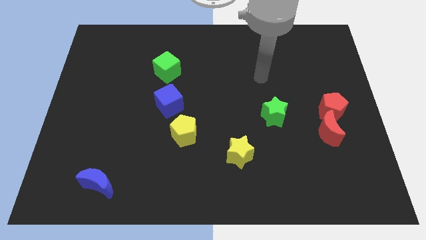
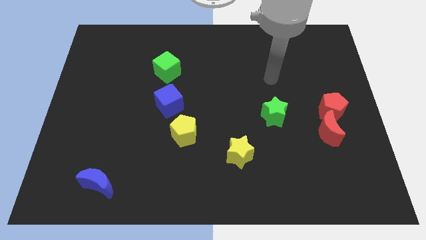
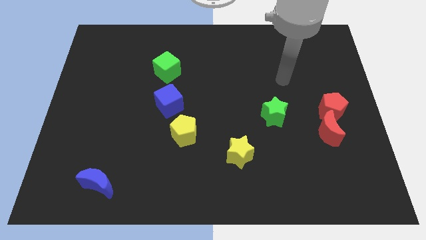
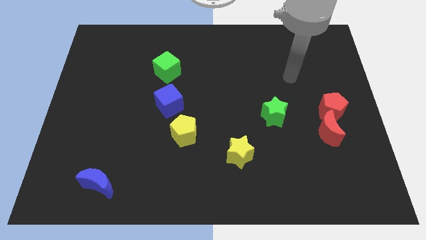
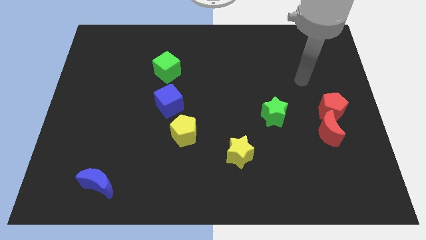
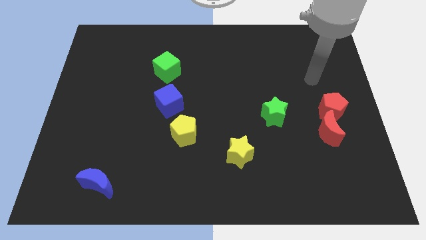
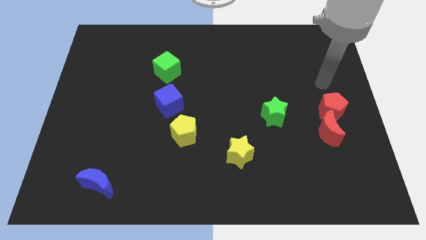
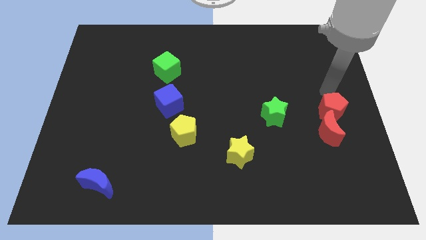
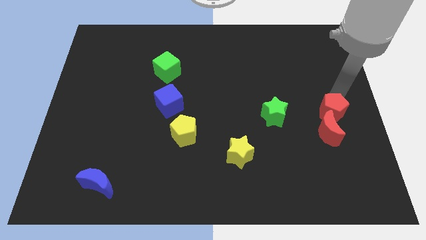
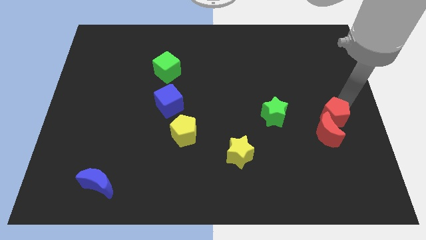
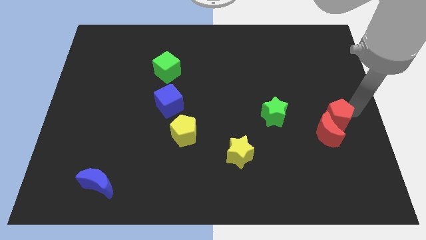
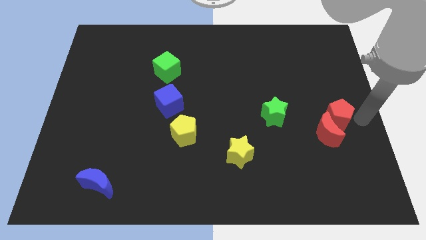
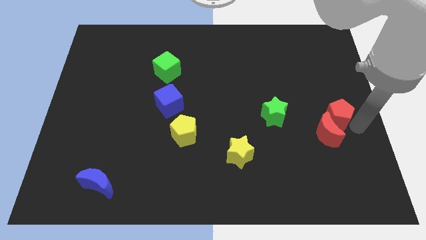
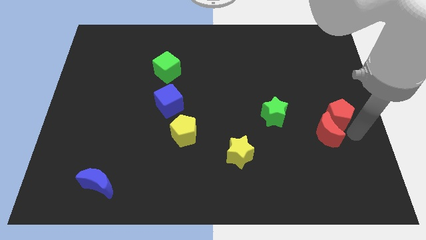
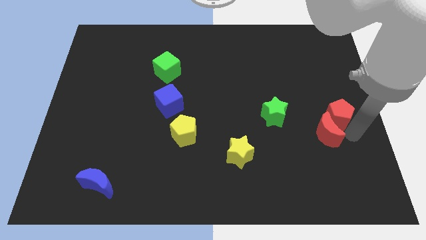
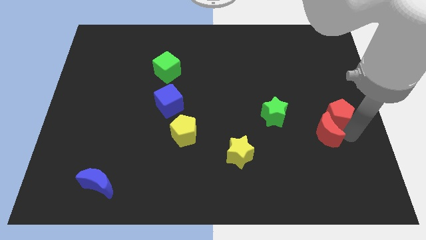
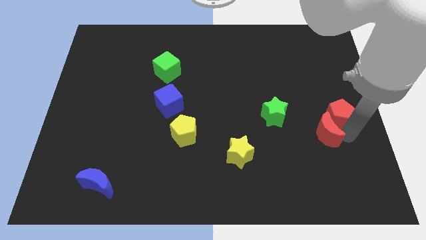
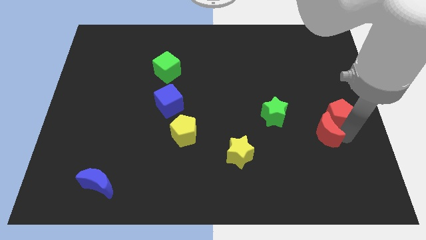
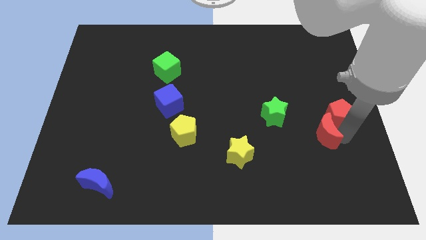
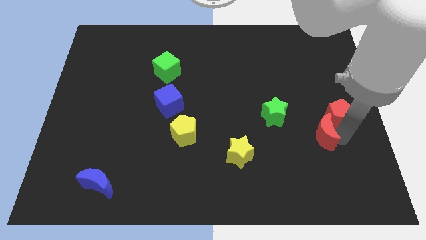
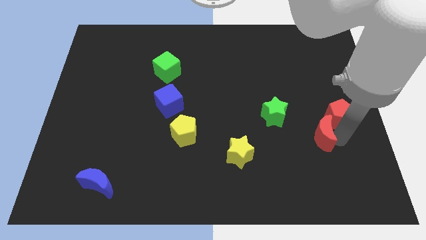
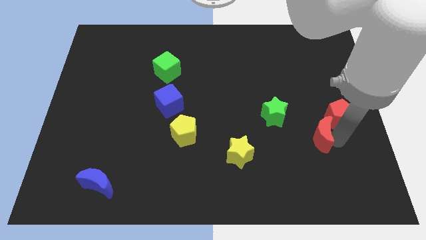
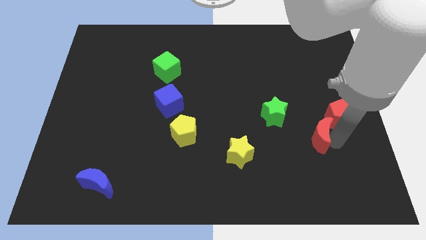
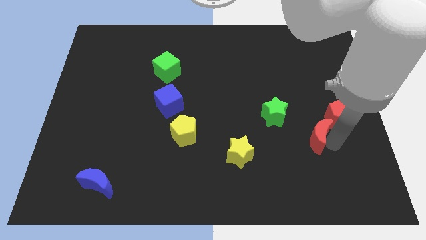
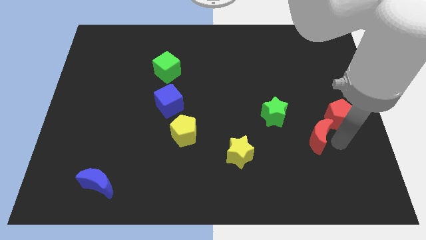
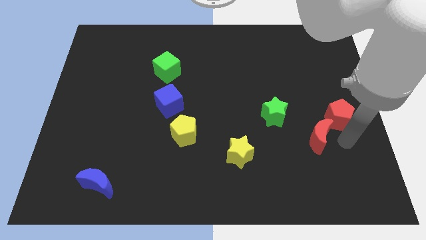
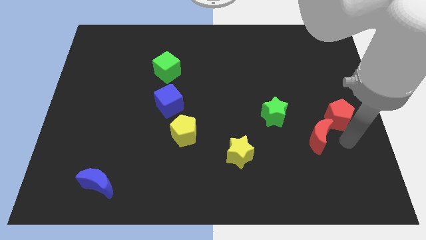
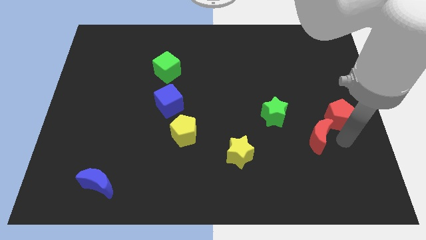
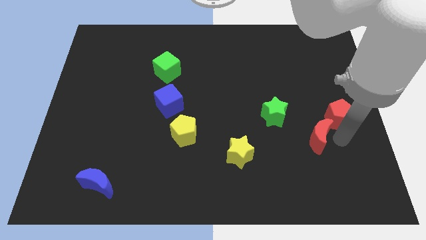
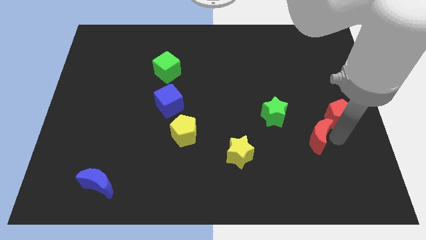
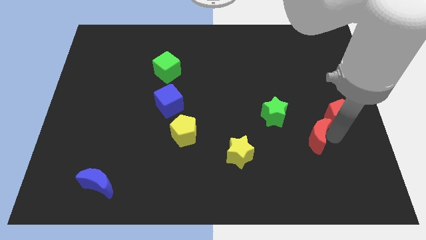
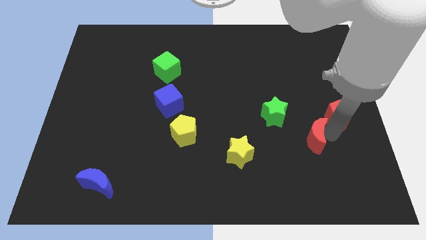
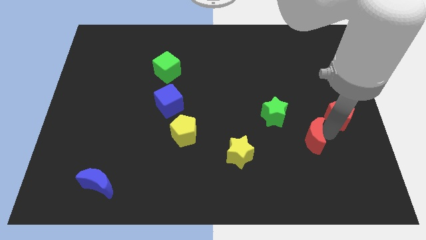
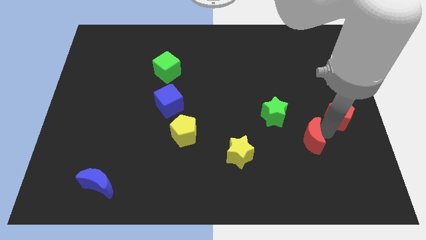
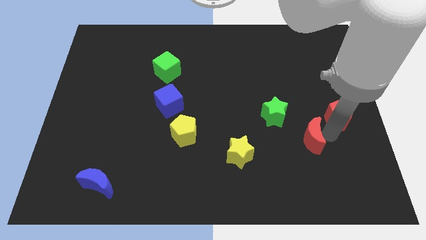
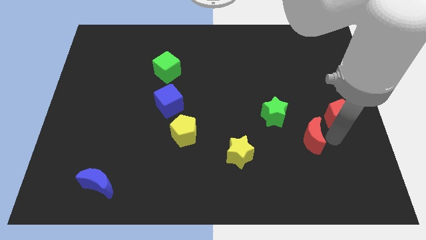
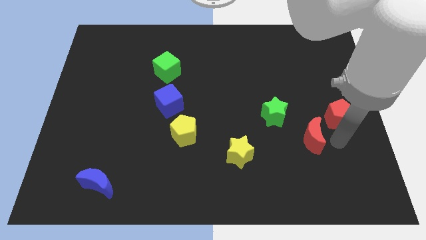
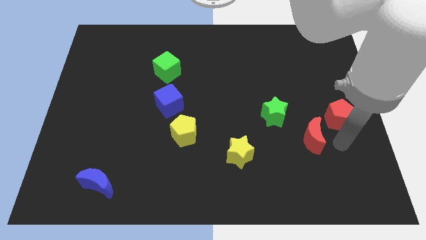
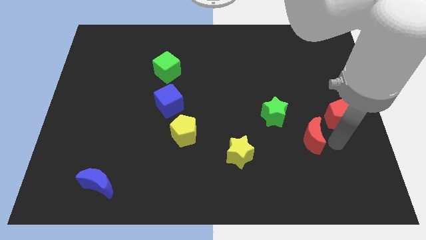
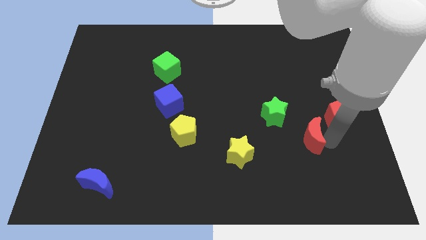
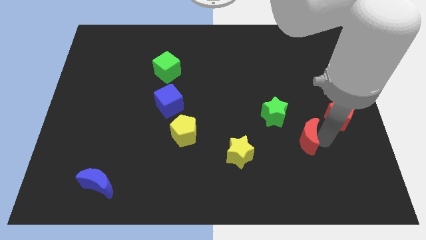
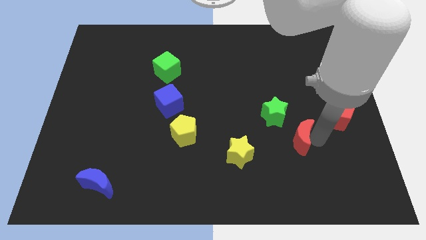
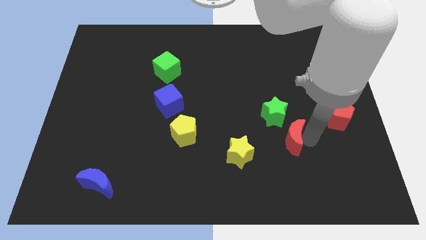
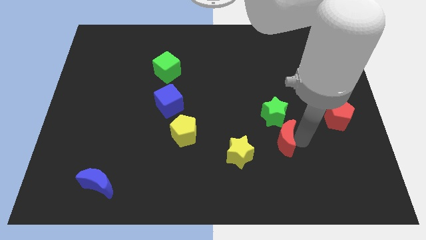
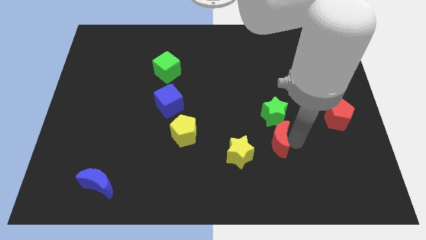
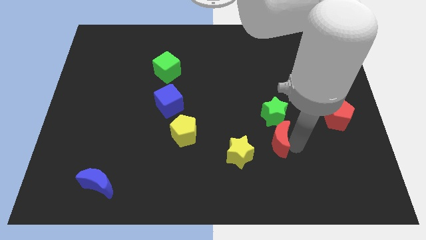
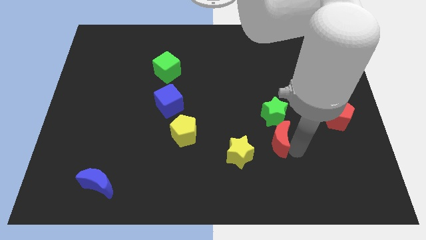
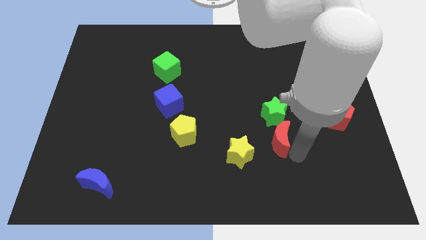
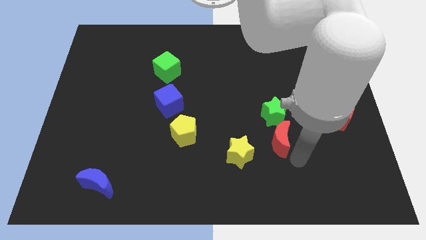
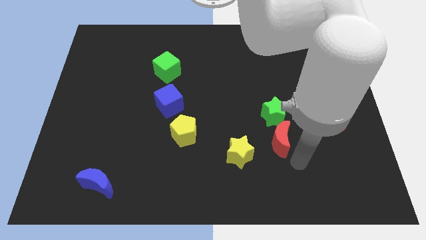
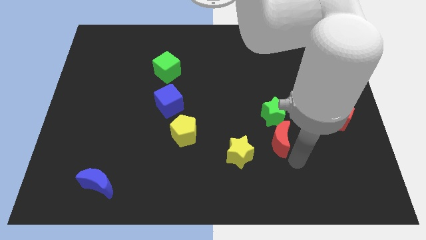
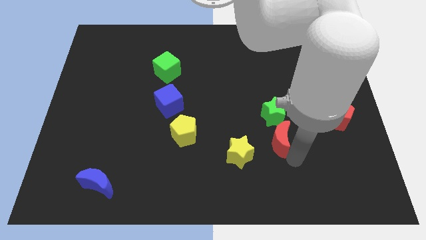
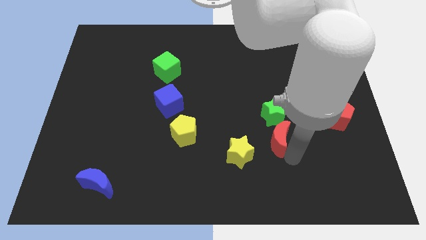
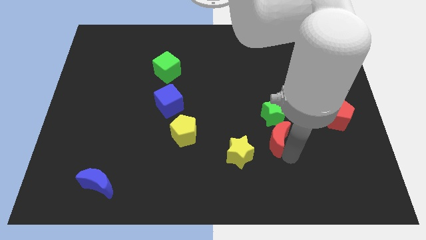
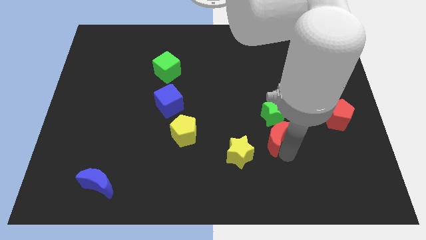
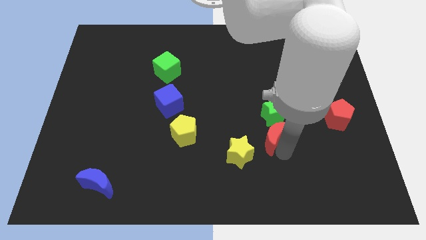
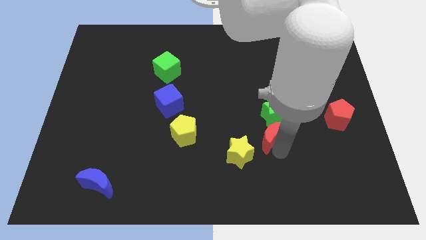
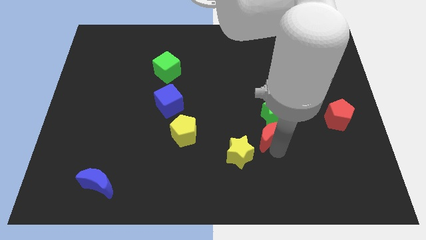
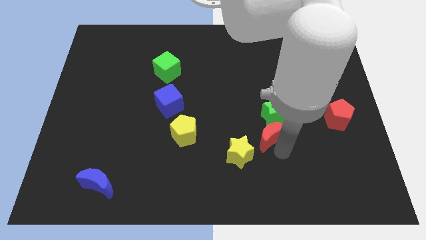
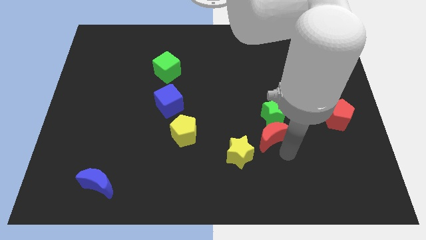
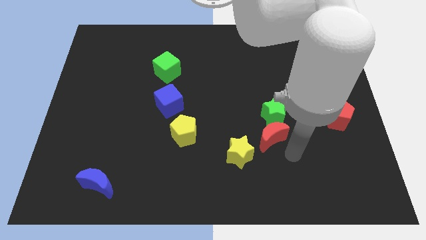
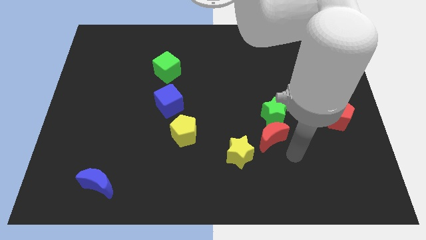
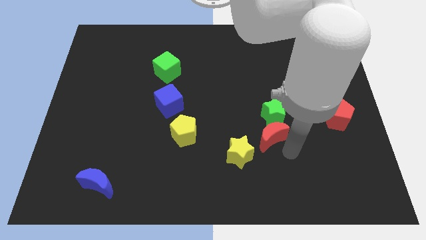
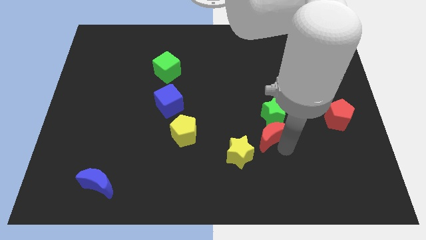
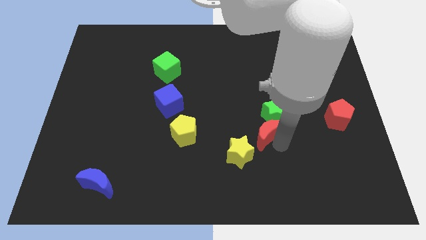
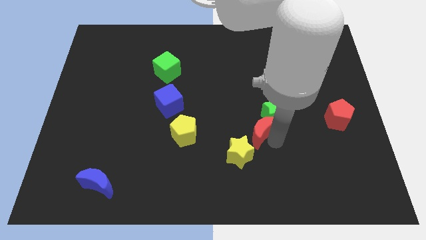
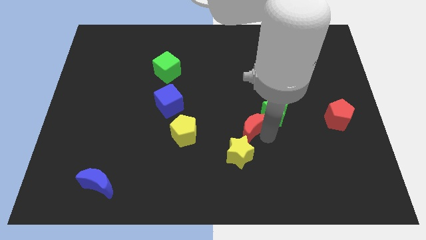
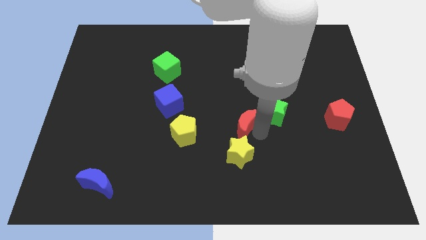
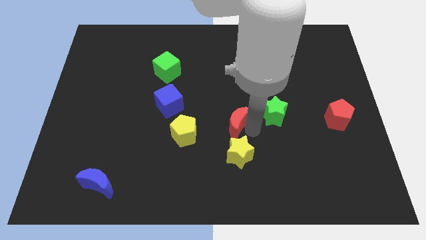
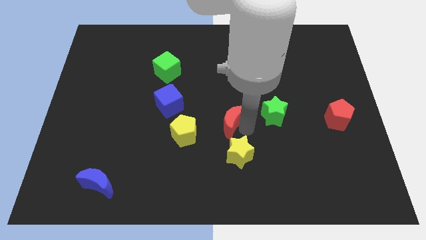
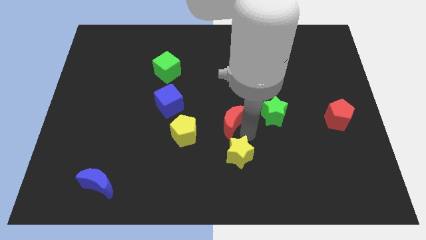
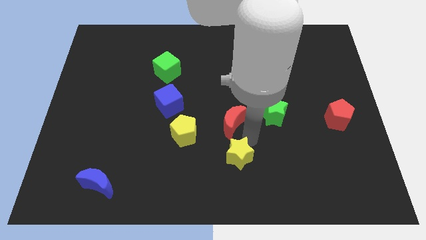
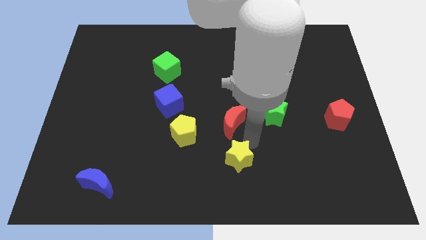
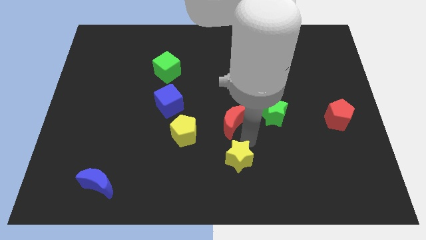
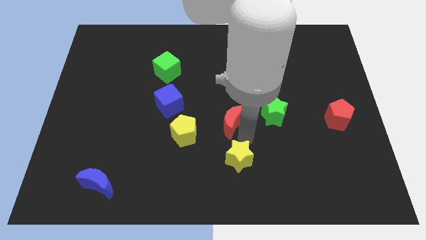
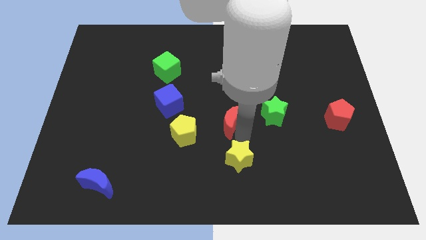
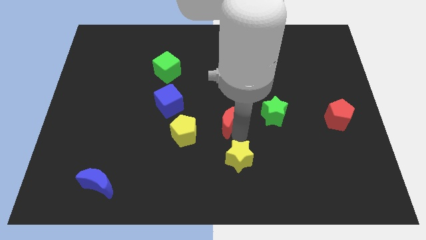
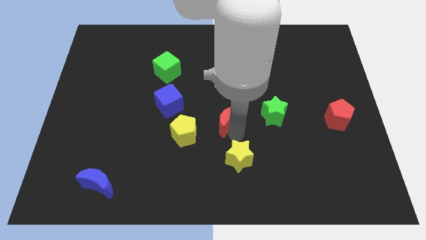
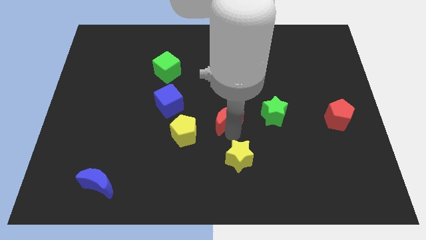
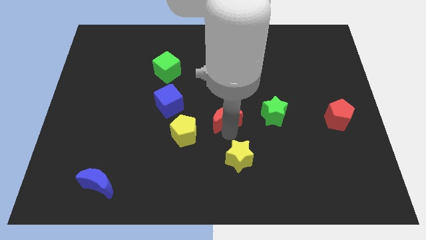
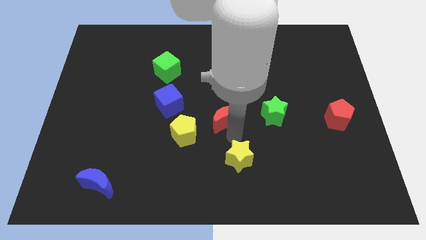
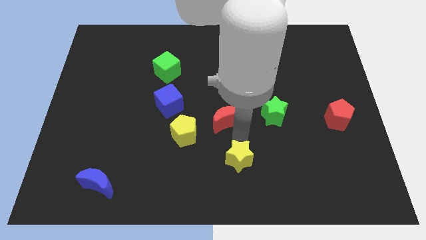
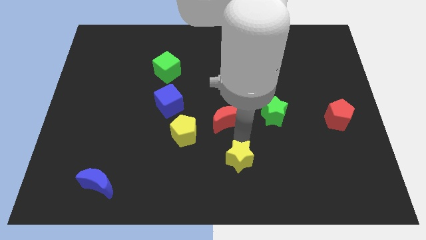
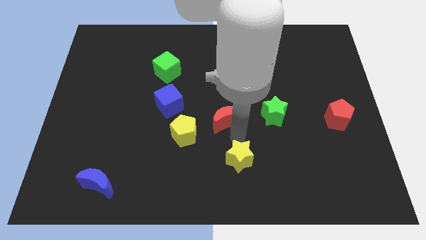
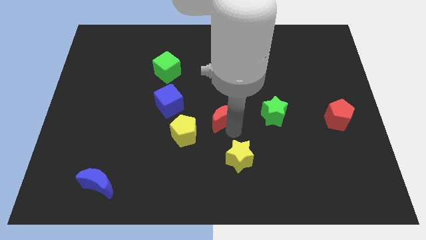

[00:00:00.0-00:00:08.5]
slide the red moon right of the blue cube
